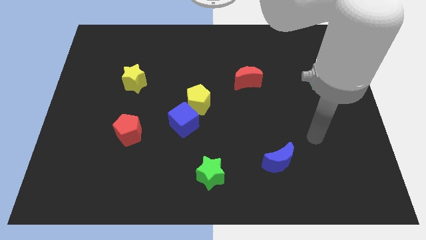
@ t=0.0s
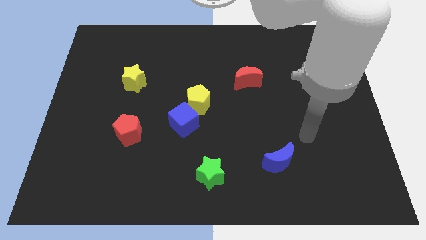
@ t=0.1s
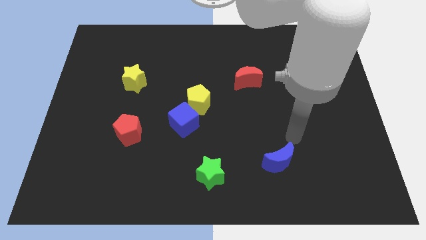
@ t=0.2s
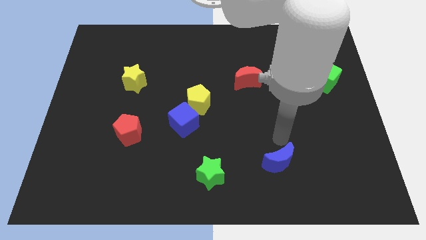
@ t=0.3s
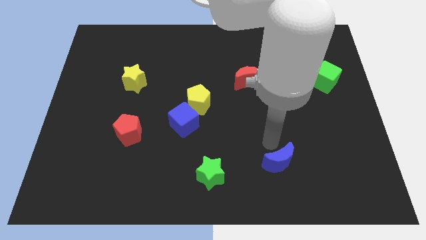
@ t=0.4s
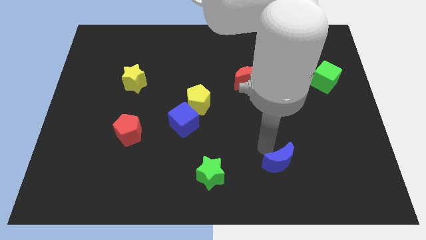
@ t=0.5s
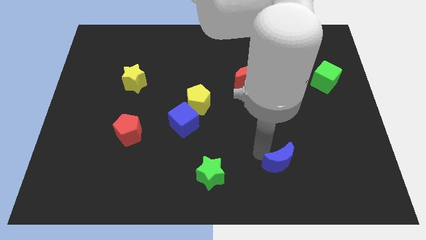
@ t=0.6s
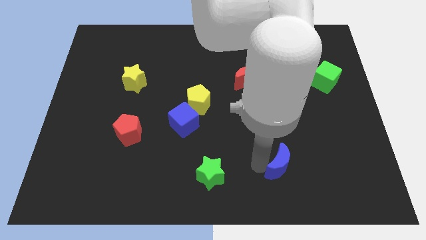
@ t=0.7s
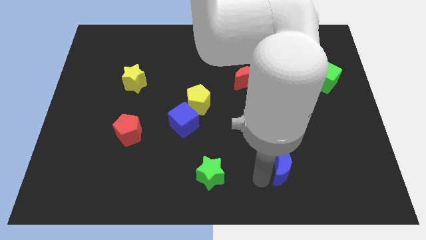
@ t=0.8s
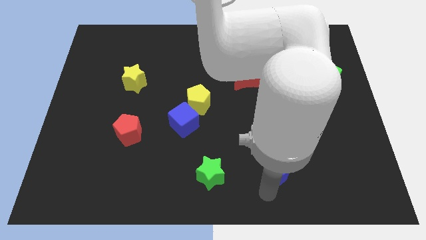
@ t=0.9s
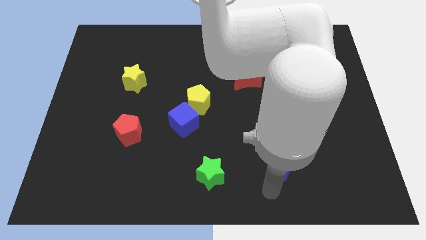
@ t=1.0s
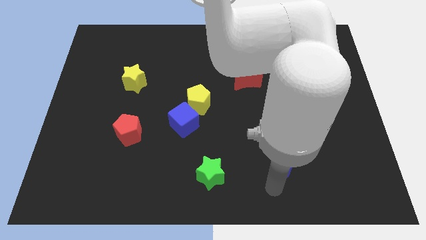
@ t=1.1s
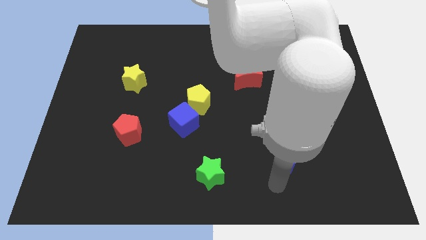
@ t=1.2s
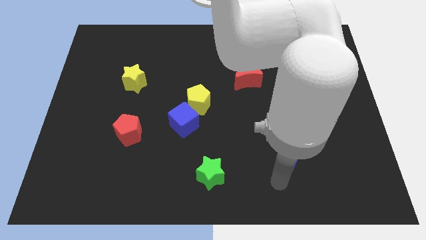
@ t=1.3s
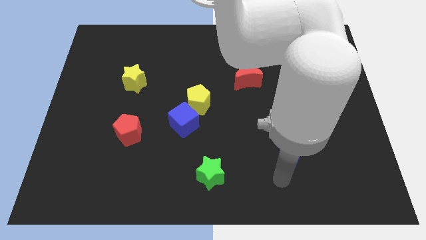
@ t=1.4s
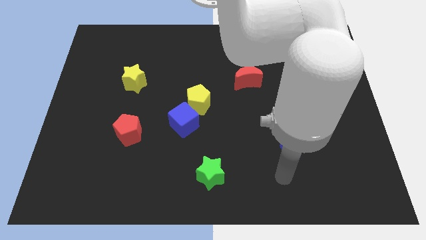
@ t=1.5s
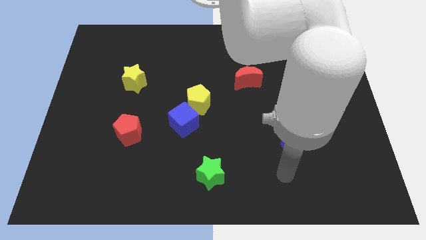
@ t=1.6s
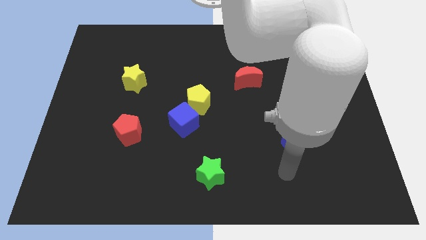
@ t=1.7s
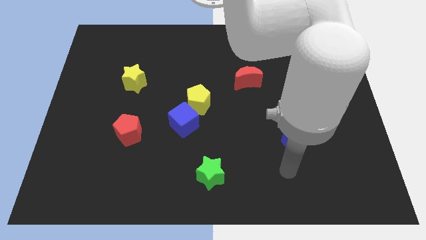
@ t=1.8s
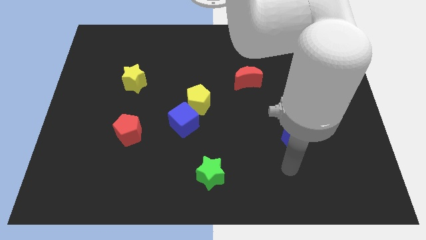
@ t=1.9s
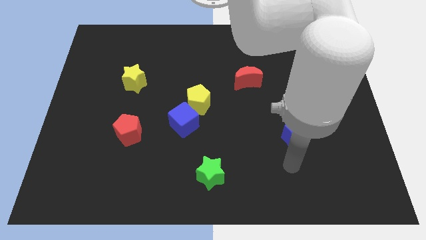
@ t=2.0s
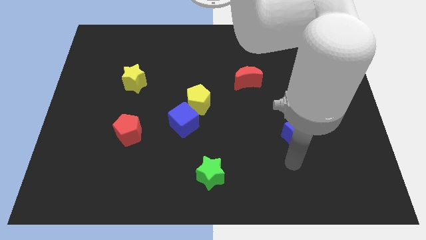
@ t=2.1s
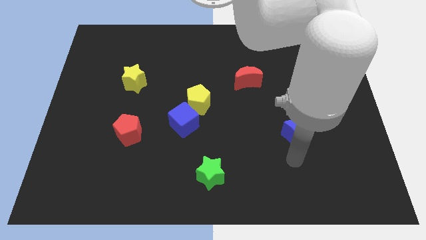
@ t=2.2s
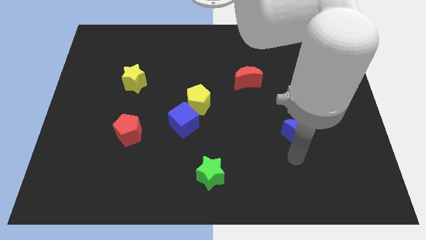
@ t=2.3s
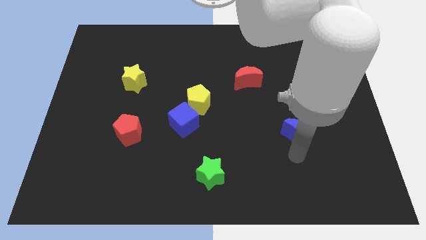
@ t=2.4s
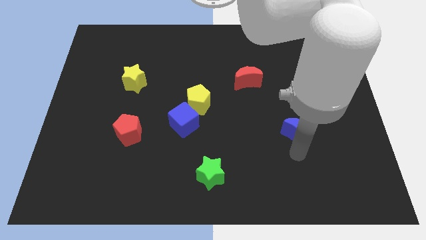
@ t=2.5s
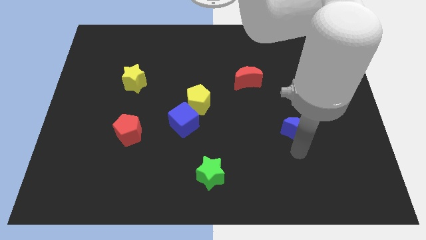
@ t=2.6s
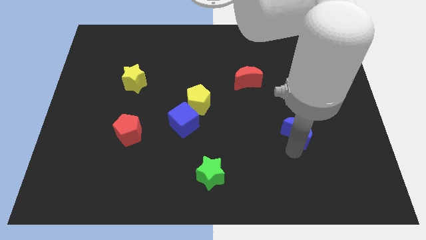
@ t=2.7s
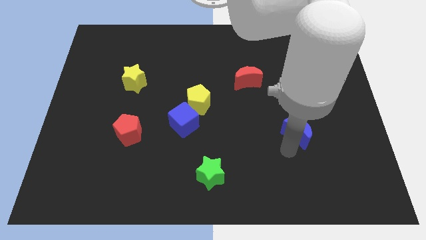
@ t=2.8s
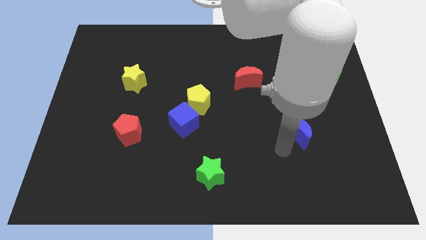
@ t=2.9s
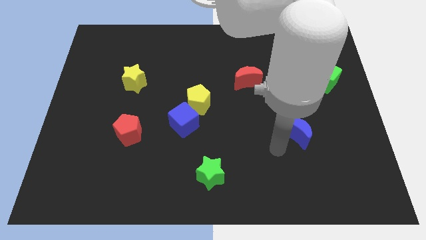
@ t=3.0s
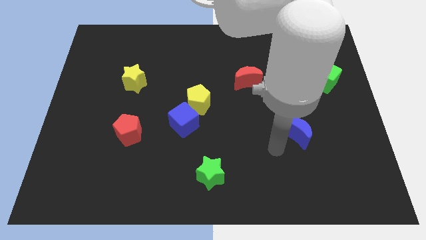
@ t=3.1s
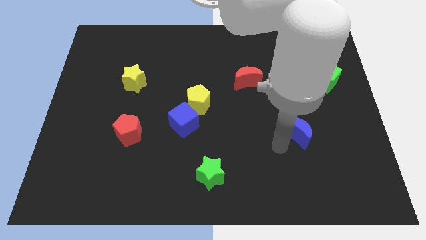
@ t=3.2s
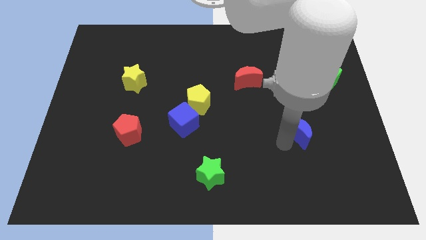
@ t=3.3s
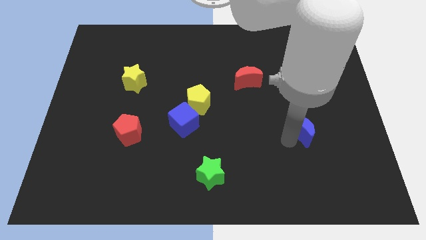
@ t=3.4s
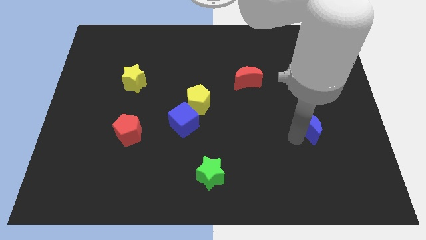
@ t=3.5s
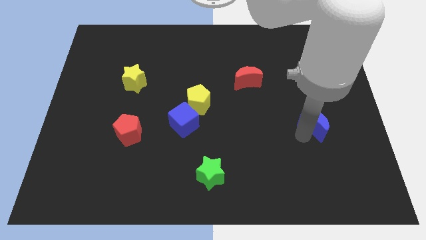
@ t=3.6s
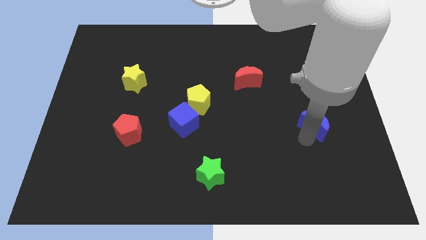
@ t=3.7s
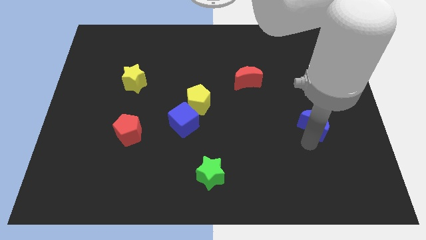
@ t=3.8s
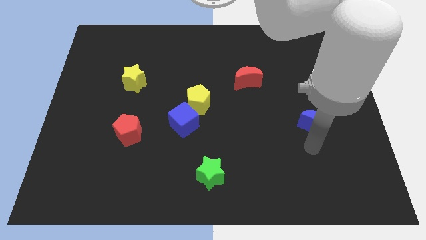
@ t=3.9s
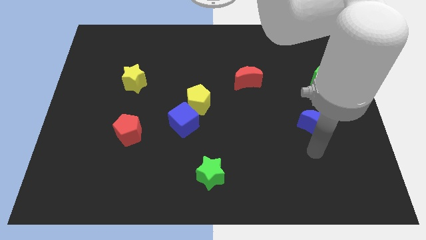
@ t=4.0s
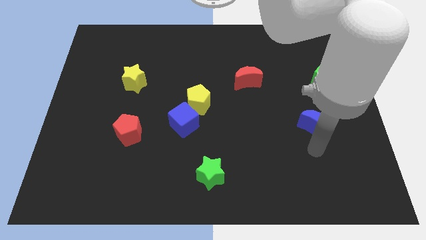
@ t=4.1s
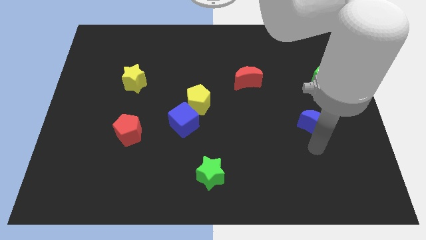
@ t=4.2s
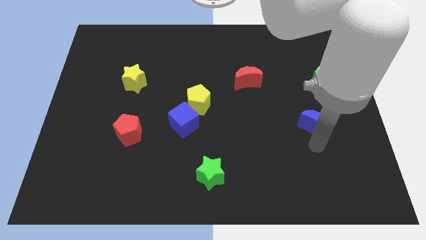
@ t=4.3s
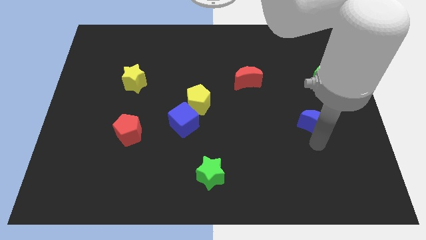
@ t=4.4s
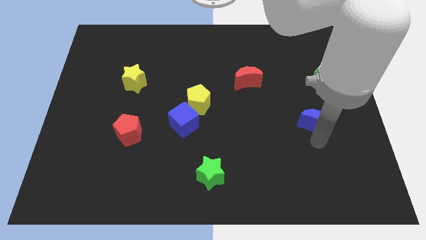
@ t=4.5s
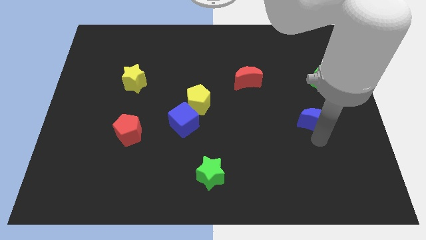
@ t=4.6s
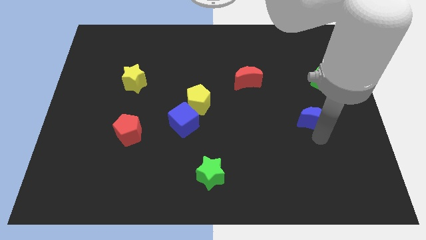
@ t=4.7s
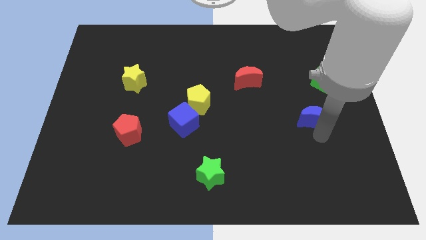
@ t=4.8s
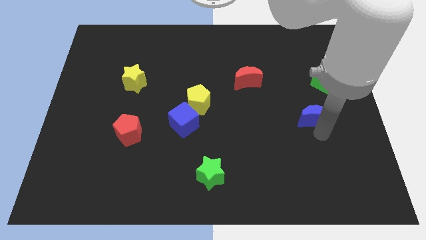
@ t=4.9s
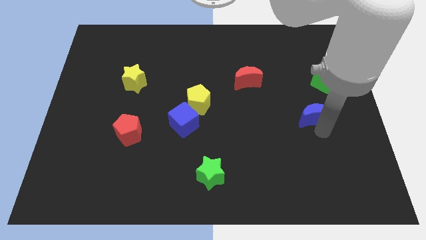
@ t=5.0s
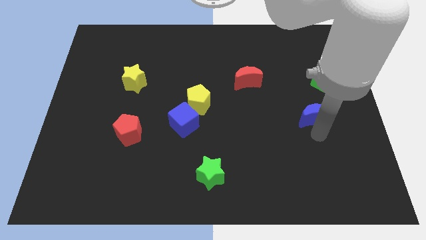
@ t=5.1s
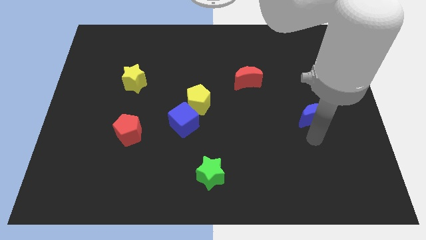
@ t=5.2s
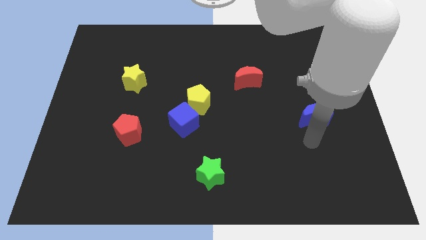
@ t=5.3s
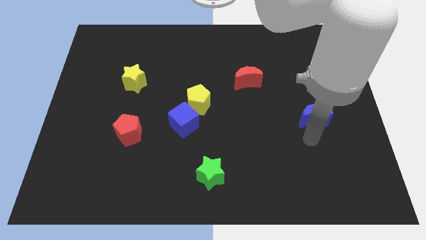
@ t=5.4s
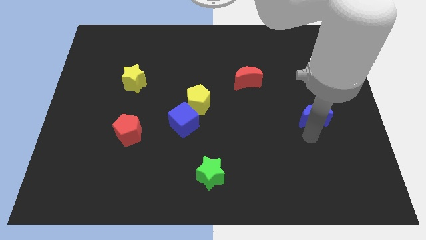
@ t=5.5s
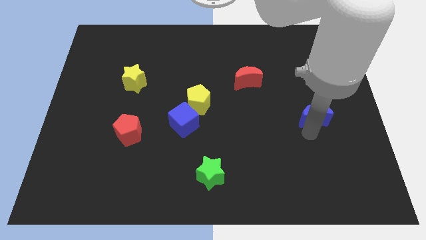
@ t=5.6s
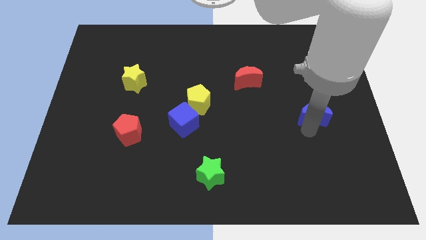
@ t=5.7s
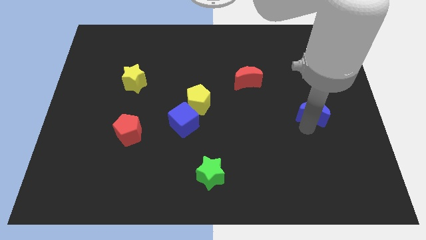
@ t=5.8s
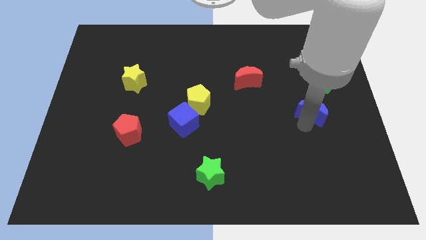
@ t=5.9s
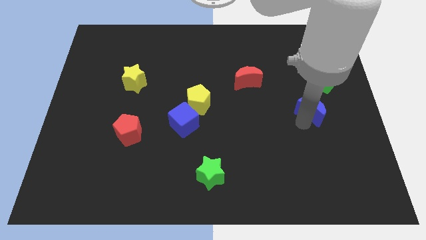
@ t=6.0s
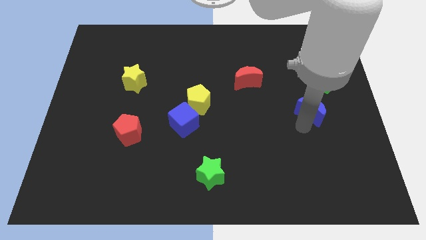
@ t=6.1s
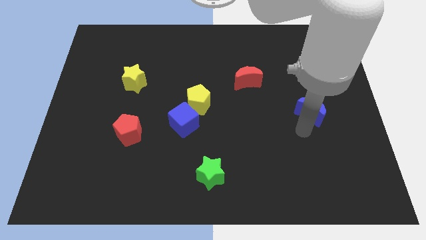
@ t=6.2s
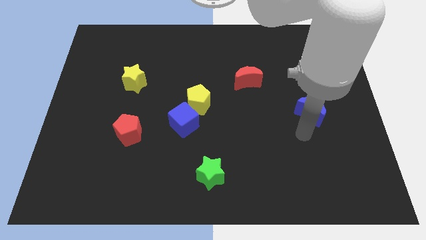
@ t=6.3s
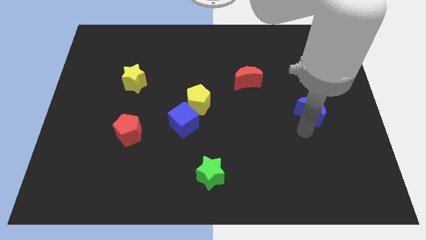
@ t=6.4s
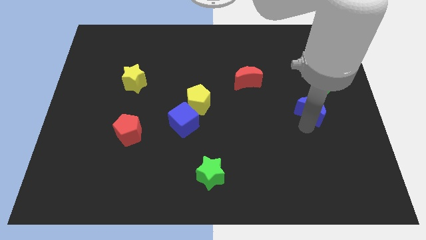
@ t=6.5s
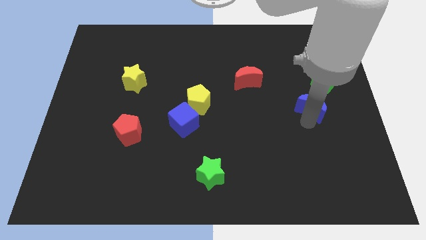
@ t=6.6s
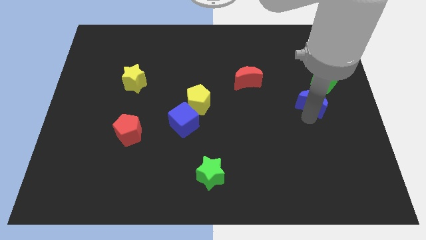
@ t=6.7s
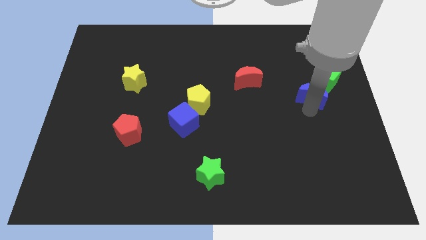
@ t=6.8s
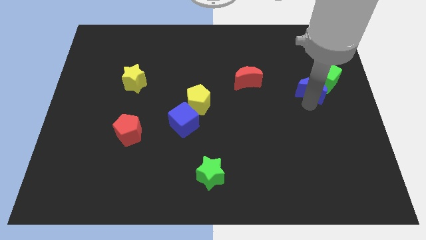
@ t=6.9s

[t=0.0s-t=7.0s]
push the blue moon to the green cube
